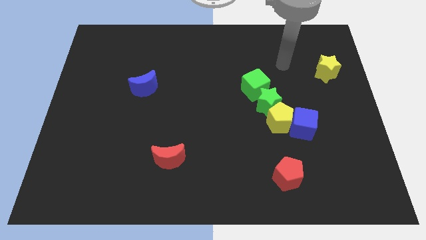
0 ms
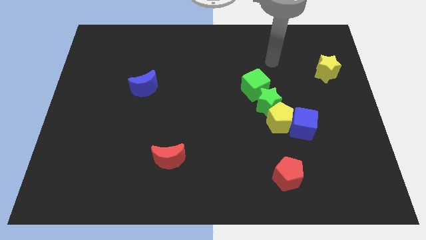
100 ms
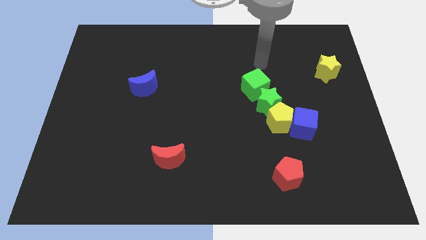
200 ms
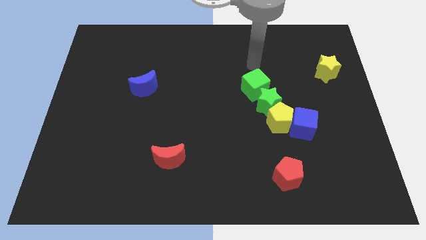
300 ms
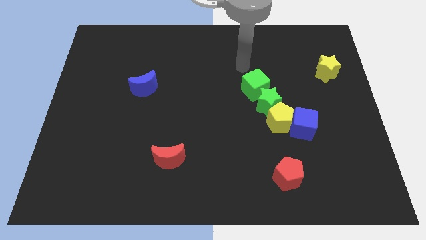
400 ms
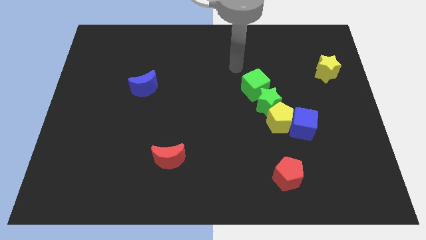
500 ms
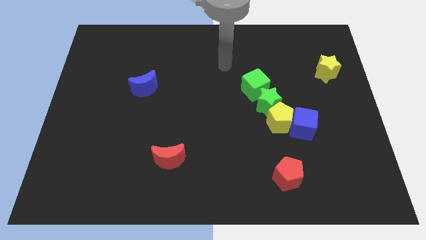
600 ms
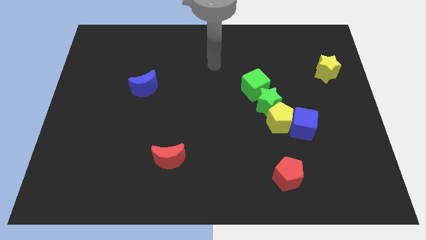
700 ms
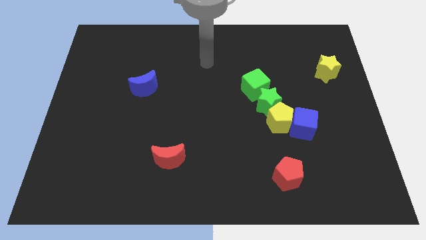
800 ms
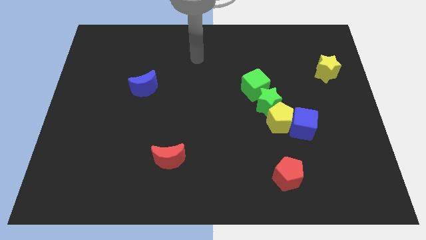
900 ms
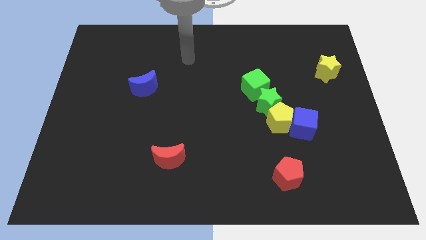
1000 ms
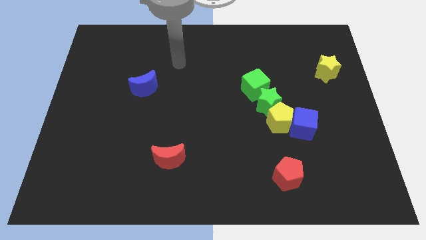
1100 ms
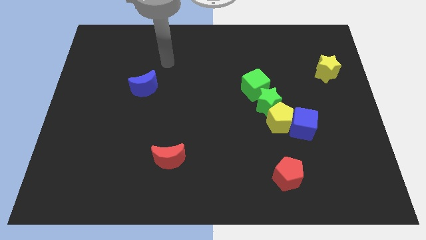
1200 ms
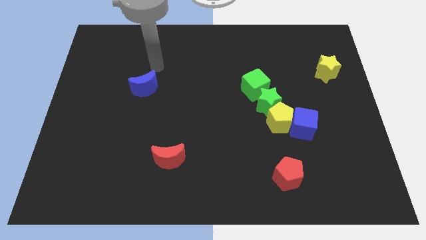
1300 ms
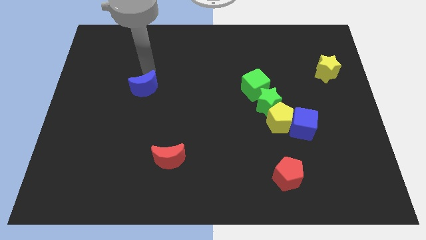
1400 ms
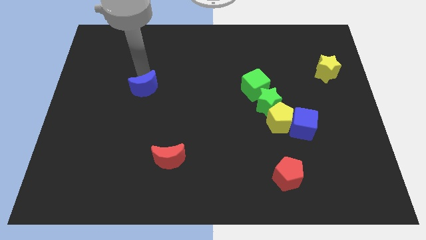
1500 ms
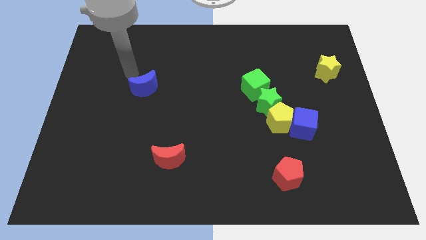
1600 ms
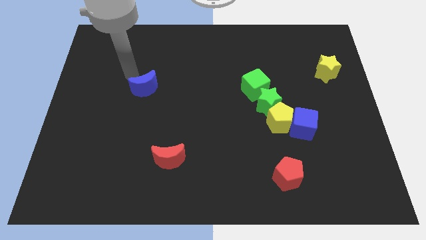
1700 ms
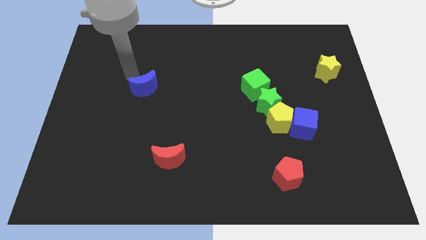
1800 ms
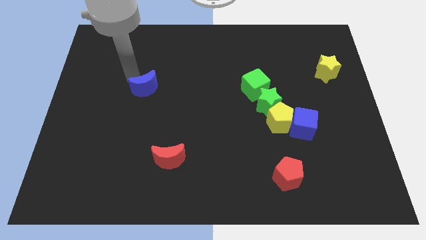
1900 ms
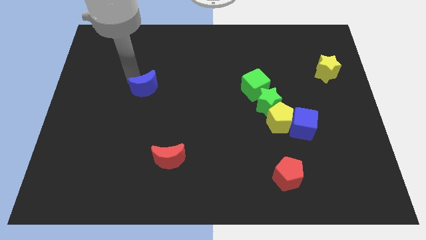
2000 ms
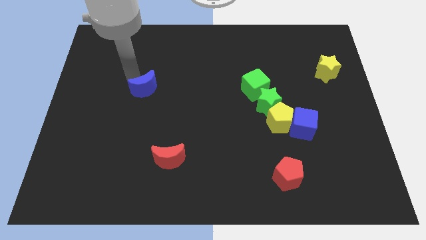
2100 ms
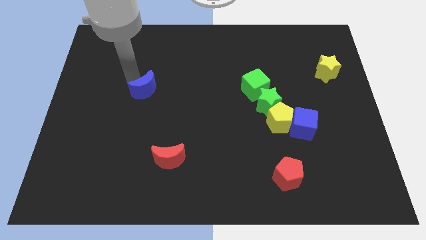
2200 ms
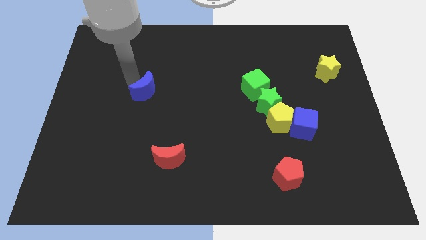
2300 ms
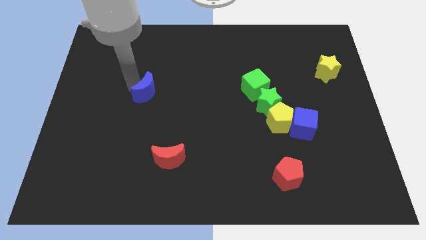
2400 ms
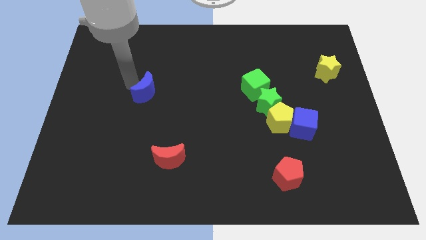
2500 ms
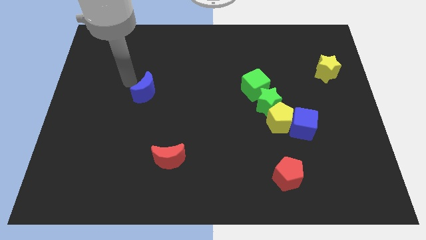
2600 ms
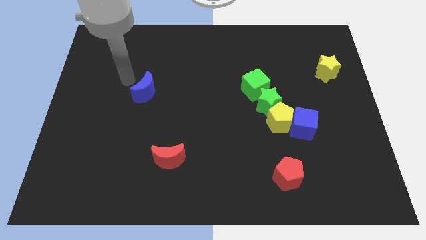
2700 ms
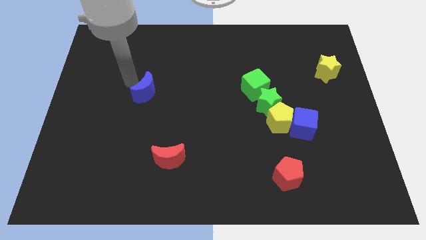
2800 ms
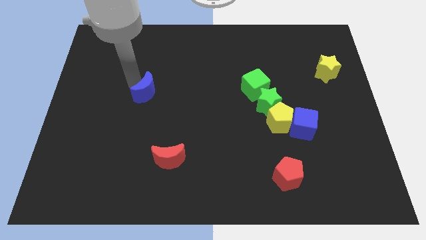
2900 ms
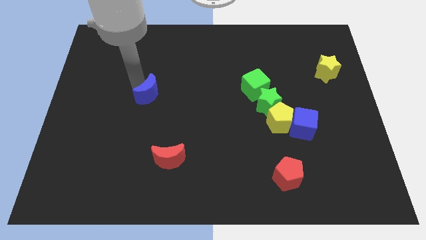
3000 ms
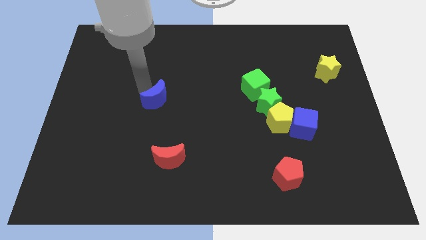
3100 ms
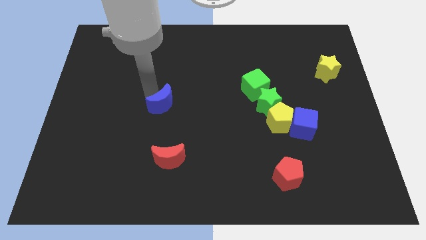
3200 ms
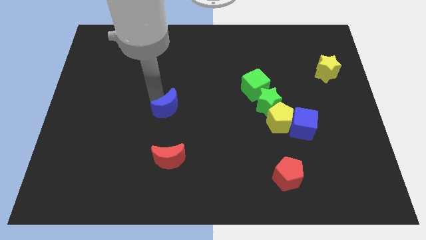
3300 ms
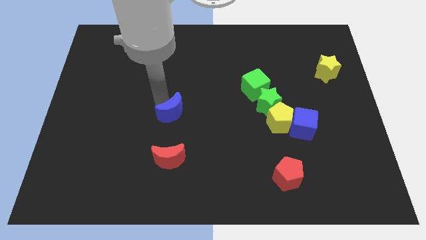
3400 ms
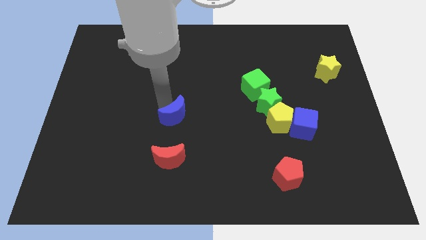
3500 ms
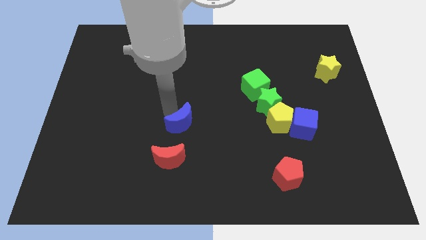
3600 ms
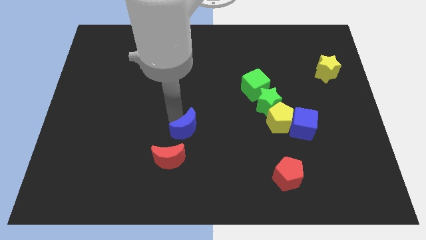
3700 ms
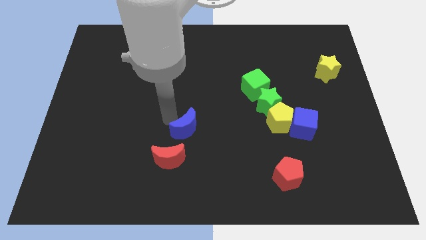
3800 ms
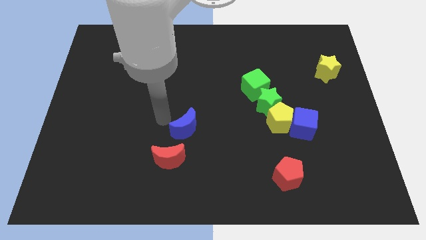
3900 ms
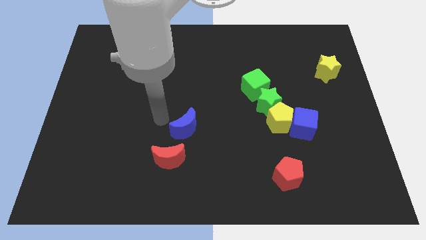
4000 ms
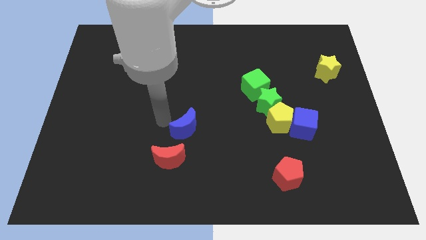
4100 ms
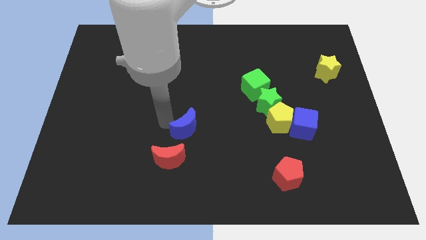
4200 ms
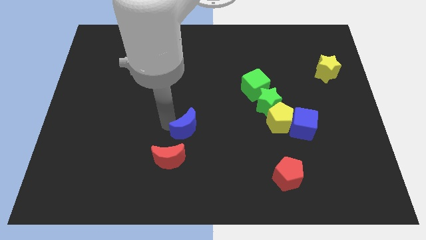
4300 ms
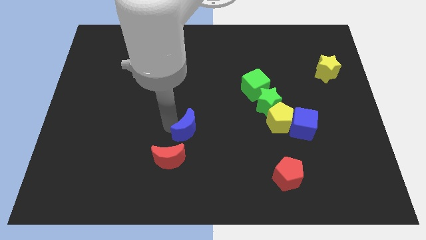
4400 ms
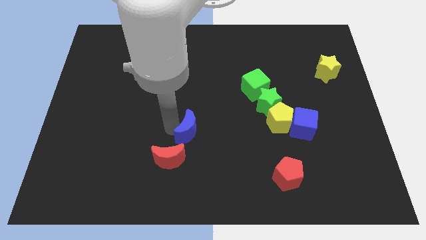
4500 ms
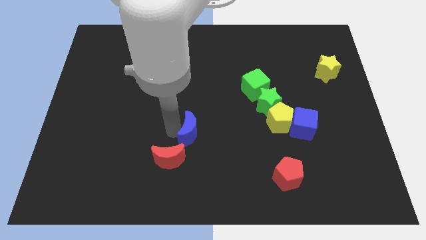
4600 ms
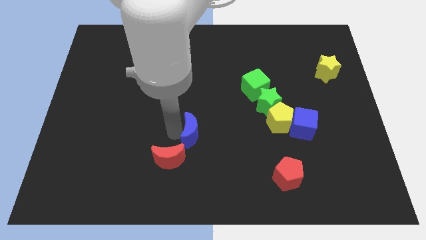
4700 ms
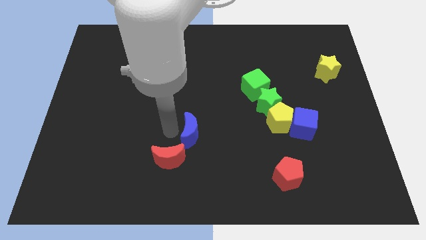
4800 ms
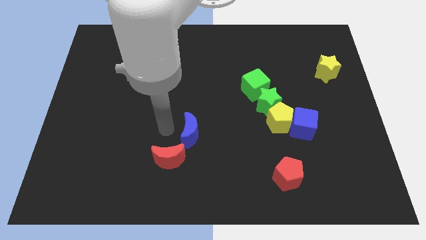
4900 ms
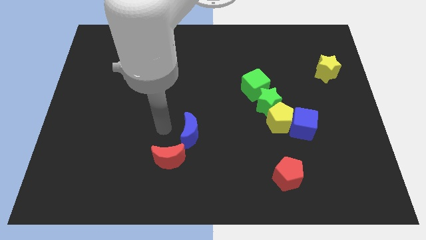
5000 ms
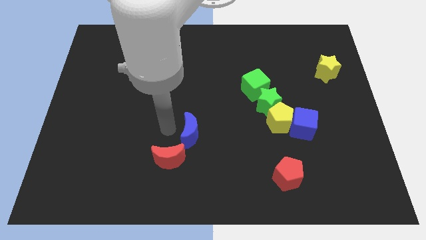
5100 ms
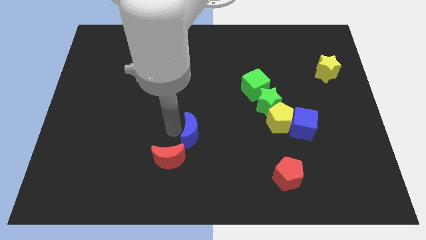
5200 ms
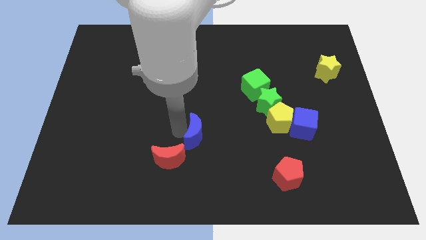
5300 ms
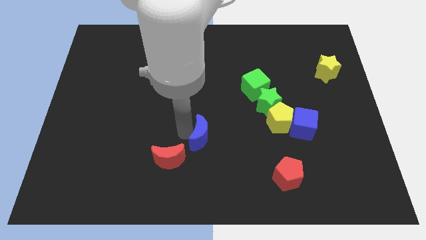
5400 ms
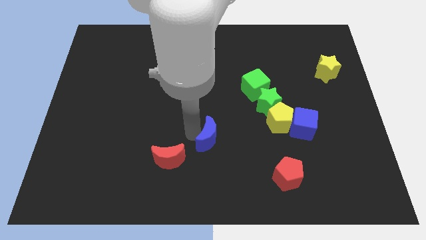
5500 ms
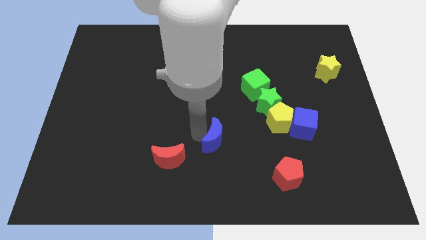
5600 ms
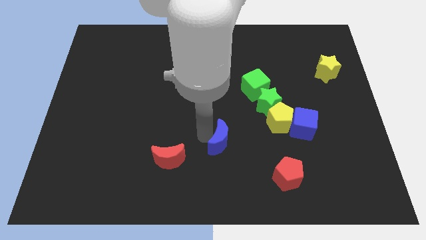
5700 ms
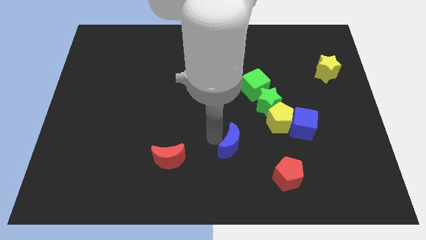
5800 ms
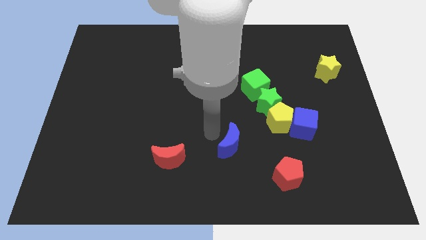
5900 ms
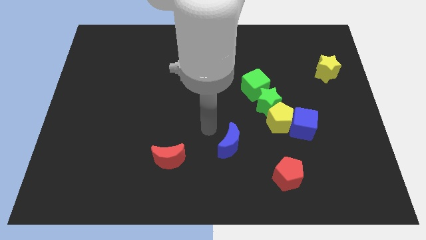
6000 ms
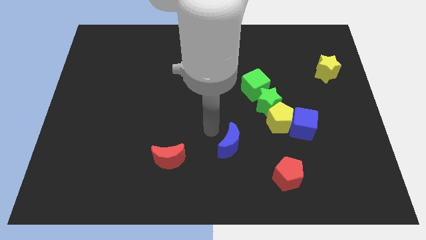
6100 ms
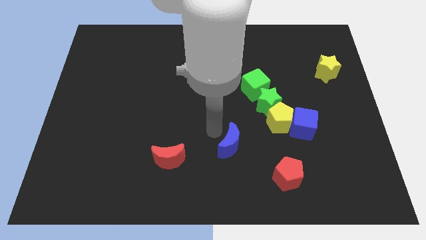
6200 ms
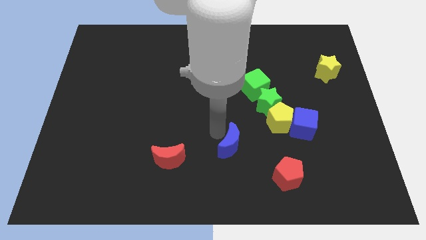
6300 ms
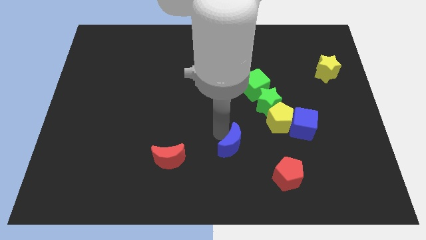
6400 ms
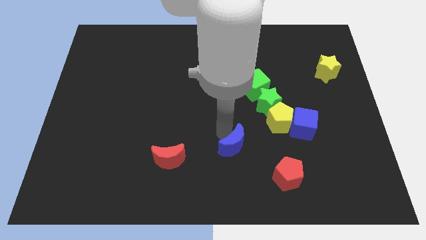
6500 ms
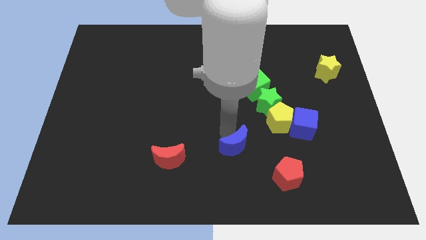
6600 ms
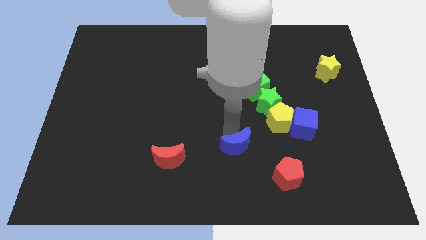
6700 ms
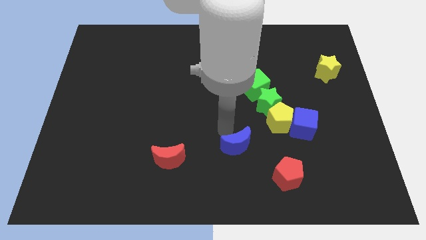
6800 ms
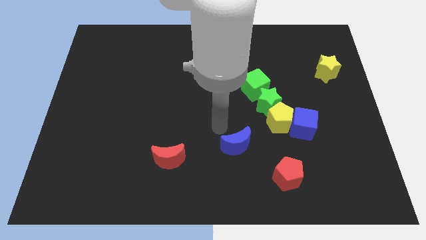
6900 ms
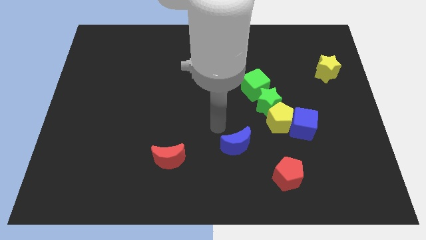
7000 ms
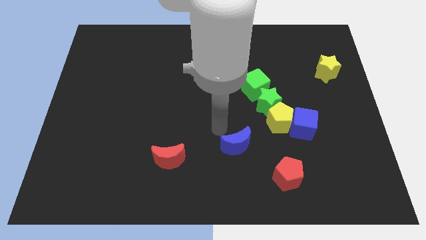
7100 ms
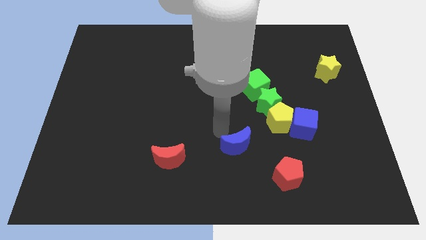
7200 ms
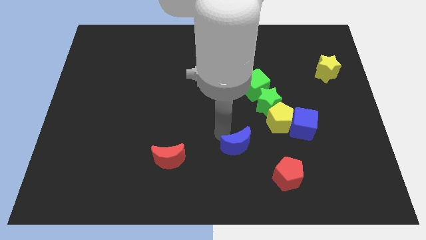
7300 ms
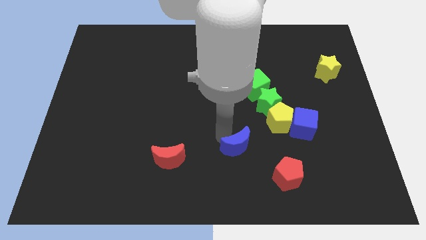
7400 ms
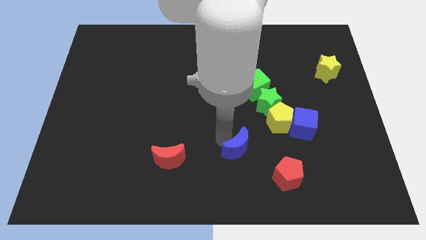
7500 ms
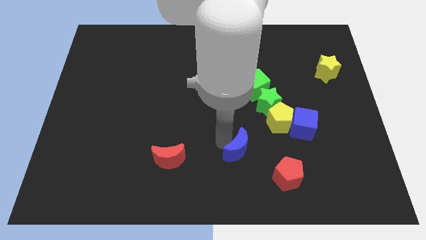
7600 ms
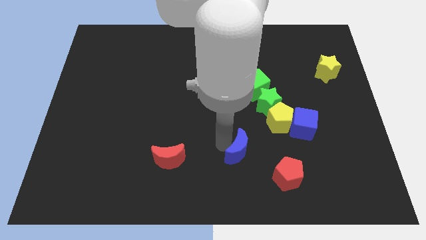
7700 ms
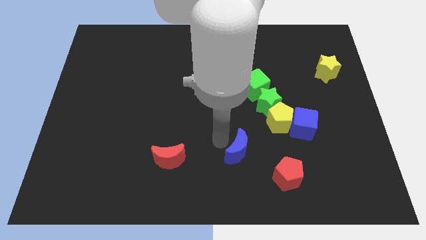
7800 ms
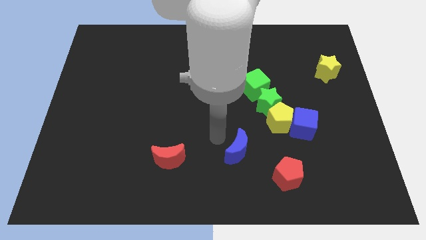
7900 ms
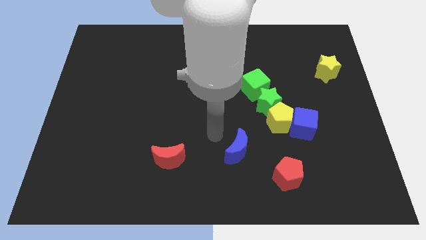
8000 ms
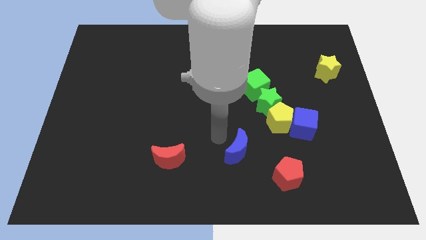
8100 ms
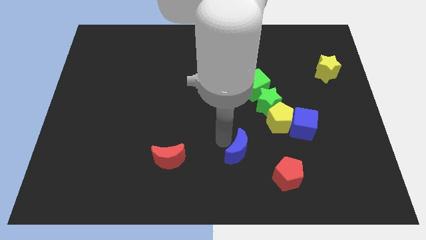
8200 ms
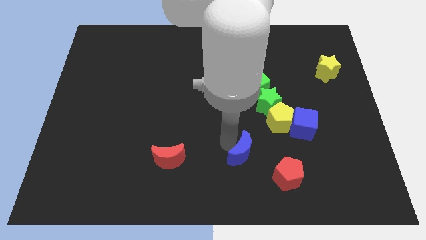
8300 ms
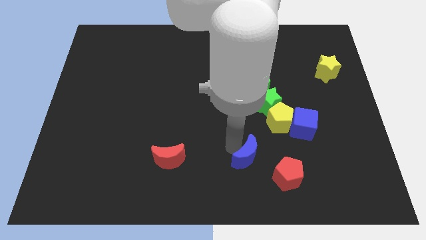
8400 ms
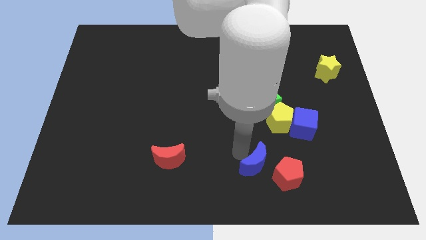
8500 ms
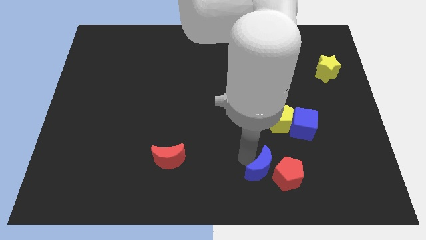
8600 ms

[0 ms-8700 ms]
move the blue moon close to the red pentagon
